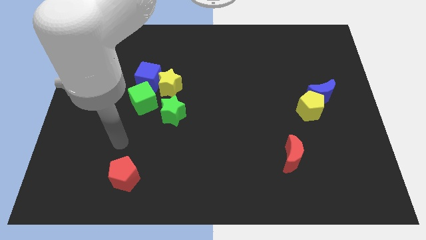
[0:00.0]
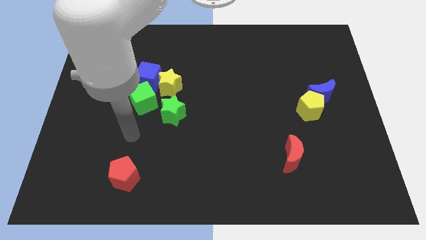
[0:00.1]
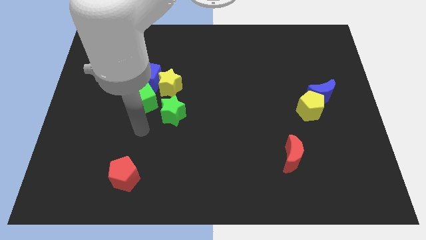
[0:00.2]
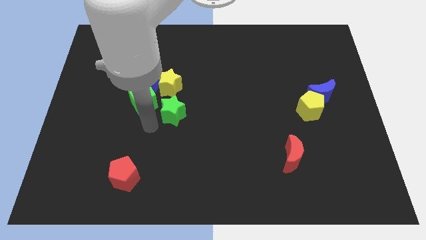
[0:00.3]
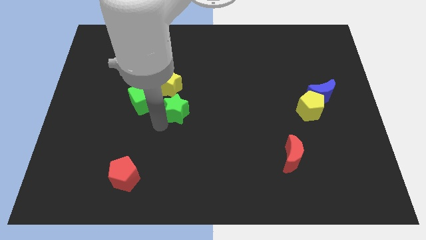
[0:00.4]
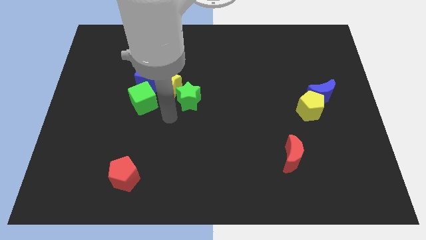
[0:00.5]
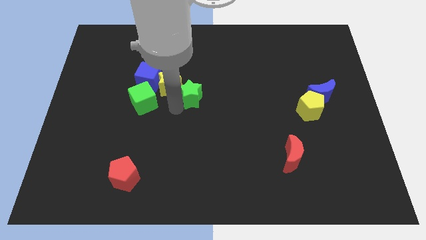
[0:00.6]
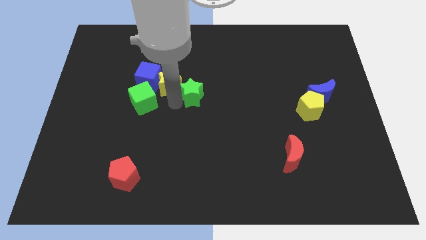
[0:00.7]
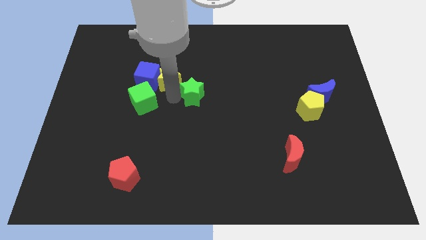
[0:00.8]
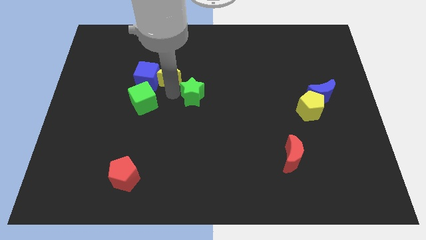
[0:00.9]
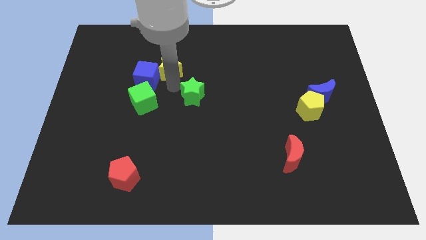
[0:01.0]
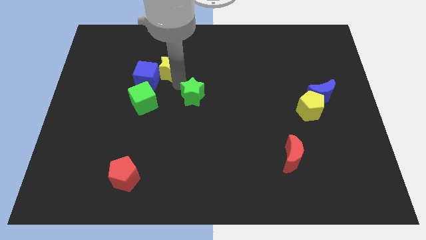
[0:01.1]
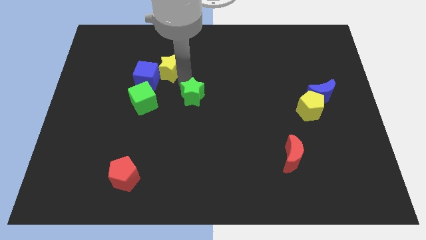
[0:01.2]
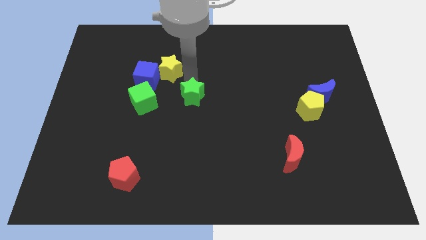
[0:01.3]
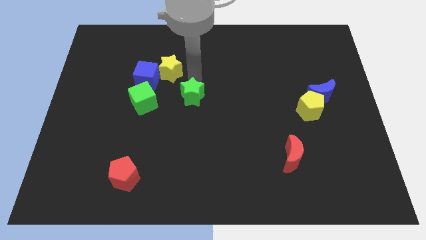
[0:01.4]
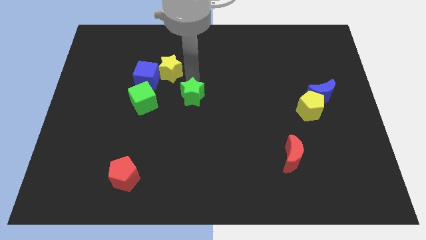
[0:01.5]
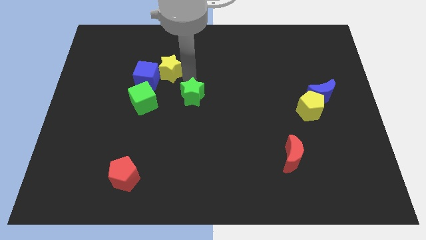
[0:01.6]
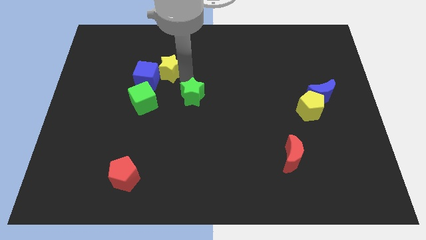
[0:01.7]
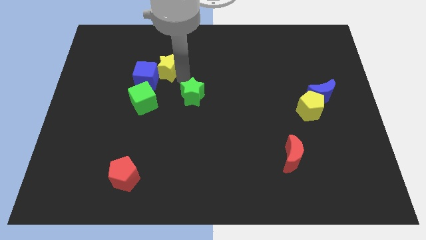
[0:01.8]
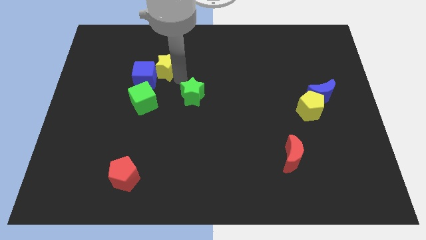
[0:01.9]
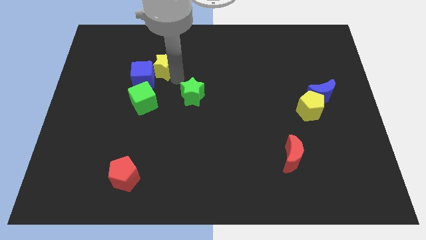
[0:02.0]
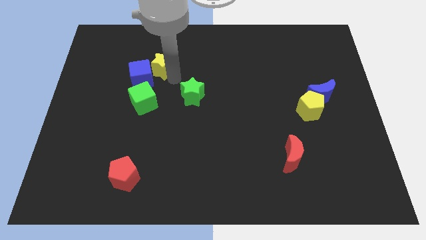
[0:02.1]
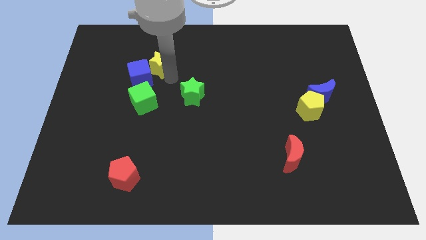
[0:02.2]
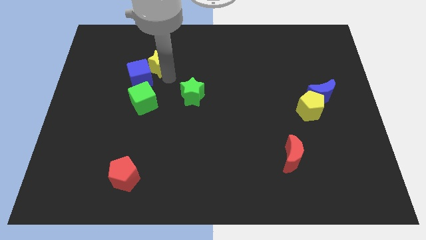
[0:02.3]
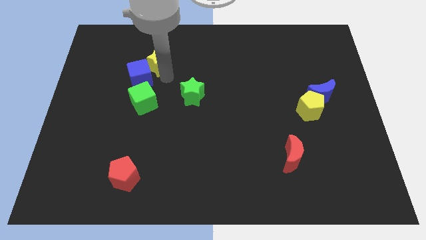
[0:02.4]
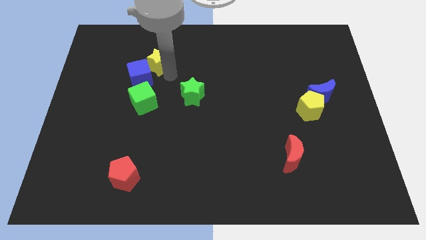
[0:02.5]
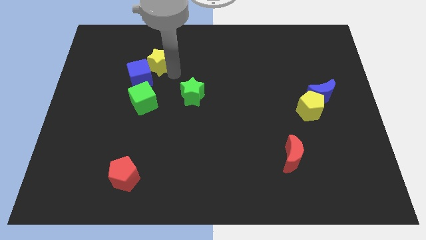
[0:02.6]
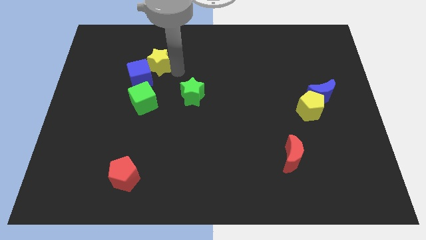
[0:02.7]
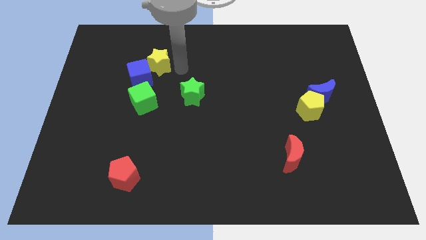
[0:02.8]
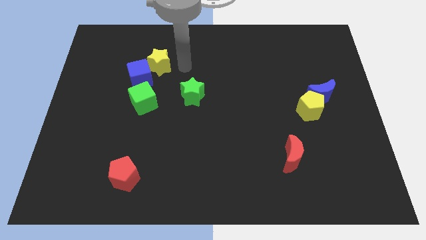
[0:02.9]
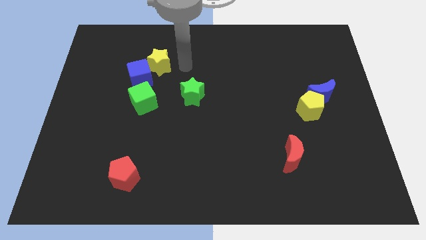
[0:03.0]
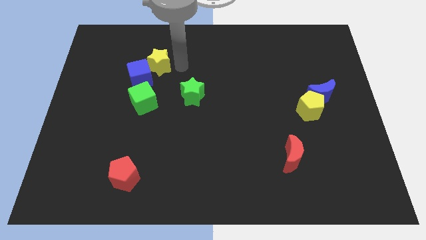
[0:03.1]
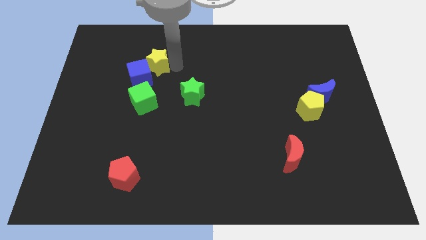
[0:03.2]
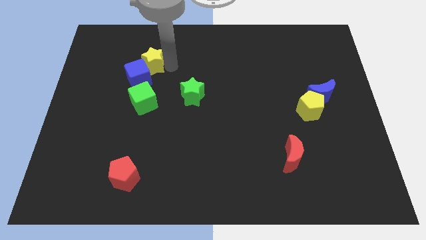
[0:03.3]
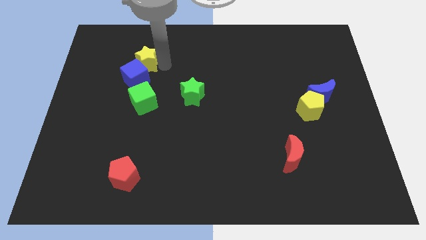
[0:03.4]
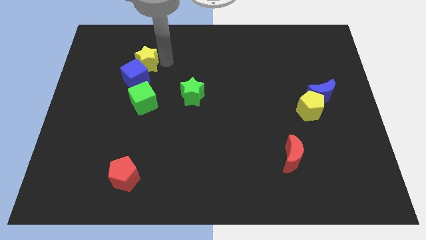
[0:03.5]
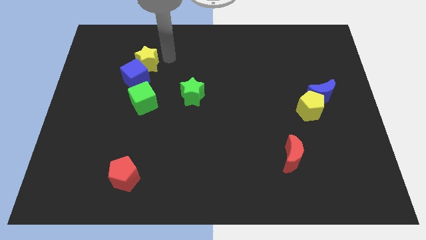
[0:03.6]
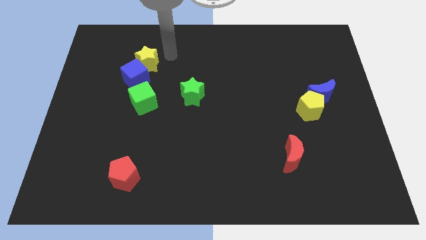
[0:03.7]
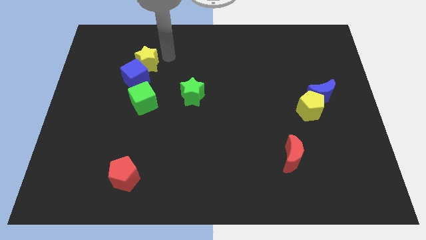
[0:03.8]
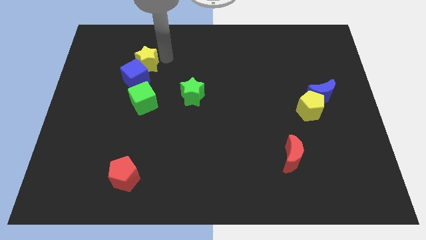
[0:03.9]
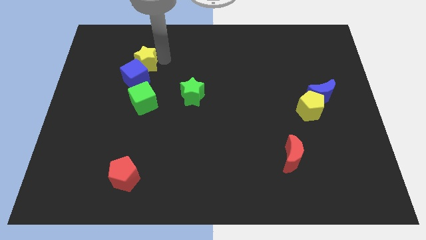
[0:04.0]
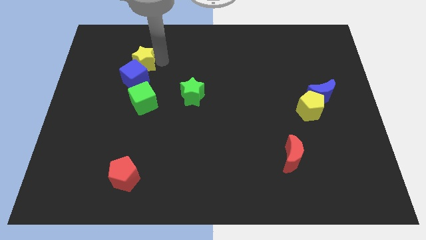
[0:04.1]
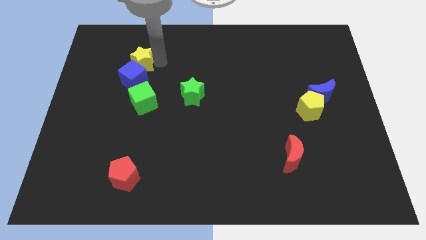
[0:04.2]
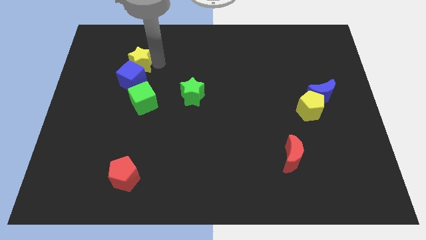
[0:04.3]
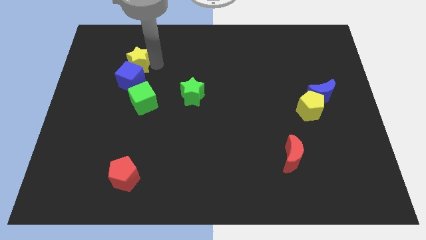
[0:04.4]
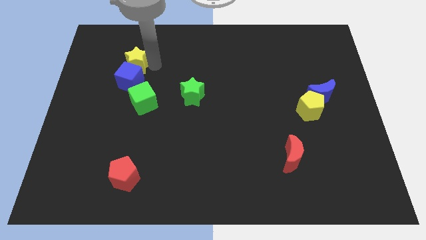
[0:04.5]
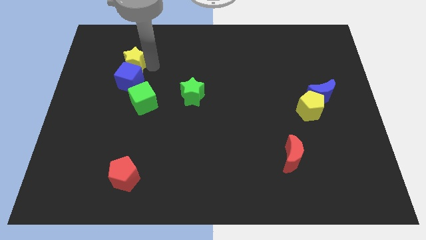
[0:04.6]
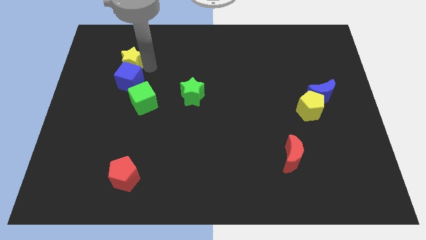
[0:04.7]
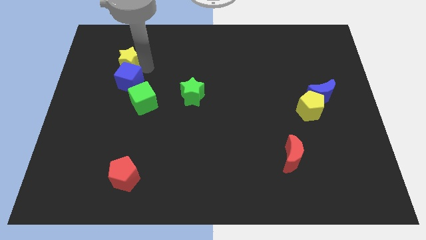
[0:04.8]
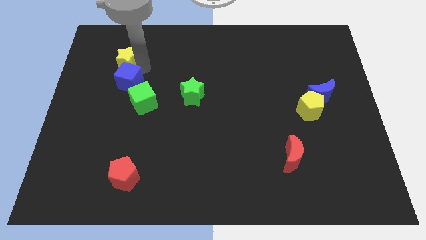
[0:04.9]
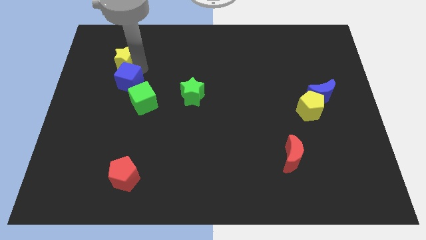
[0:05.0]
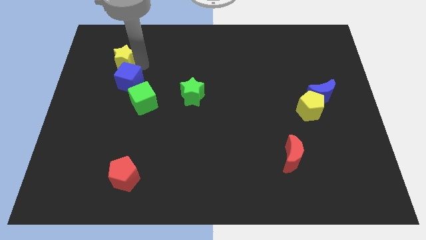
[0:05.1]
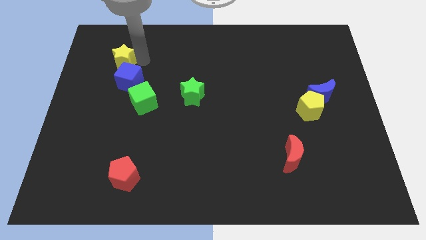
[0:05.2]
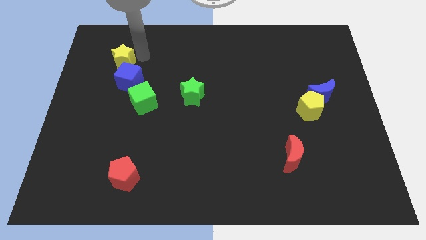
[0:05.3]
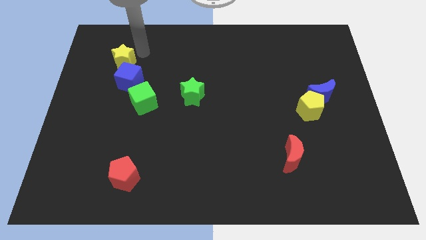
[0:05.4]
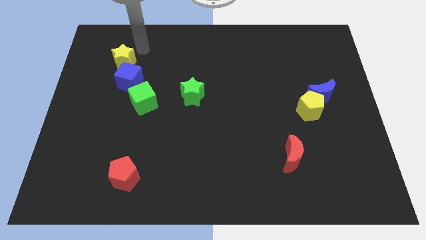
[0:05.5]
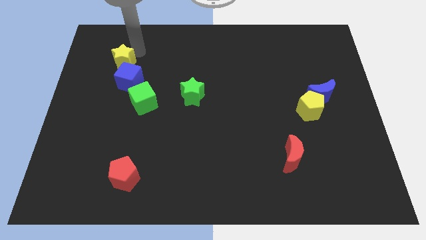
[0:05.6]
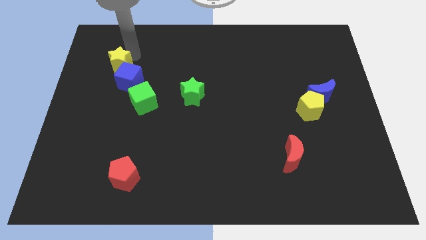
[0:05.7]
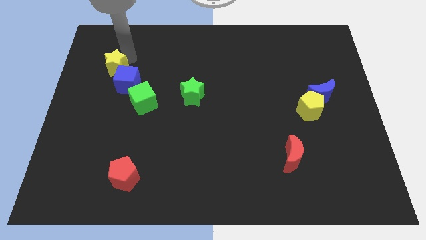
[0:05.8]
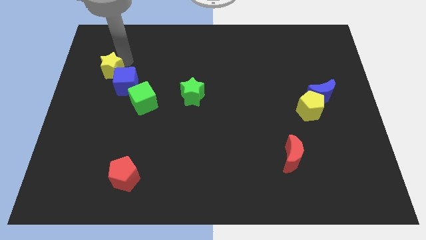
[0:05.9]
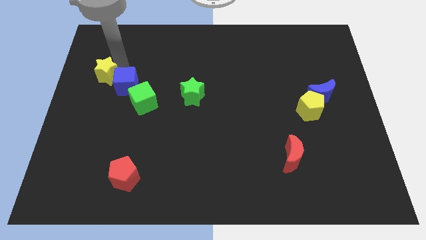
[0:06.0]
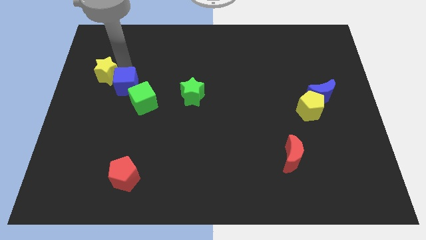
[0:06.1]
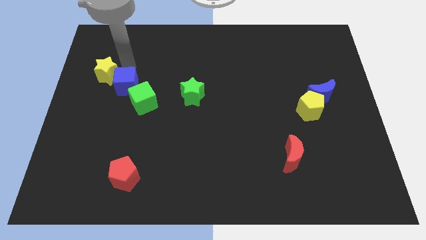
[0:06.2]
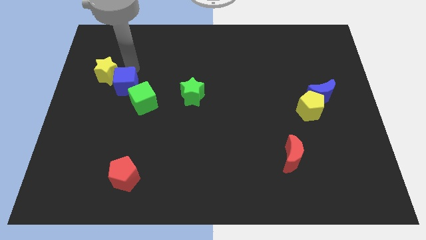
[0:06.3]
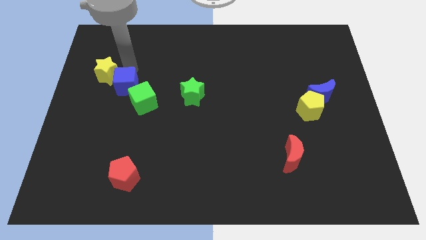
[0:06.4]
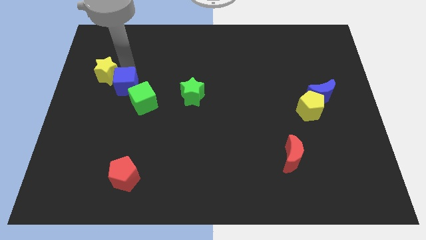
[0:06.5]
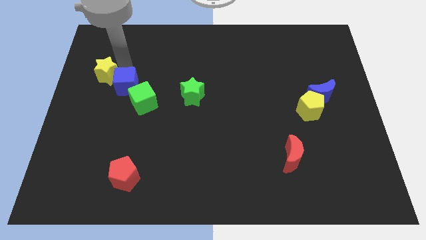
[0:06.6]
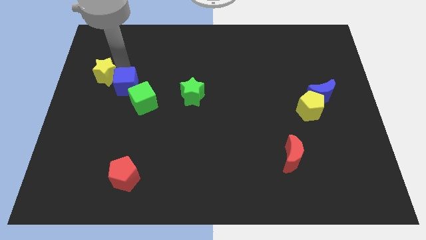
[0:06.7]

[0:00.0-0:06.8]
move the yellow star to the left side of the board
